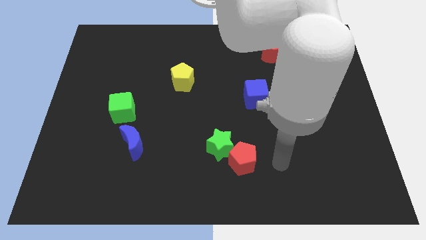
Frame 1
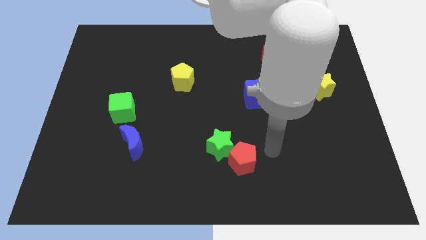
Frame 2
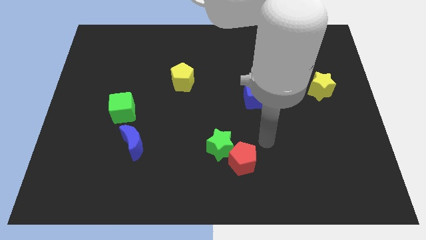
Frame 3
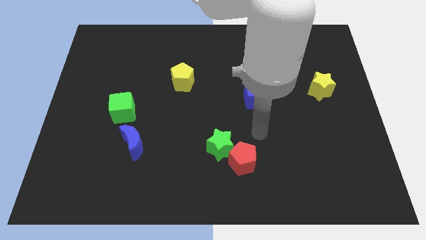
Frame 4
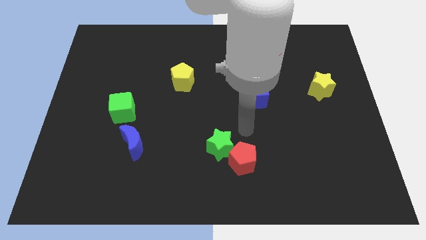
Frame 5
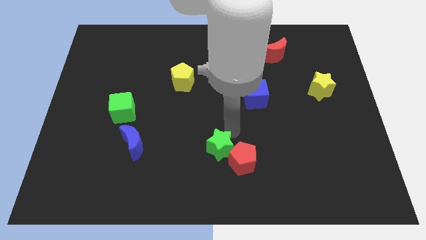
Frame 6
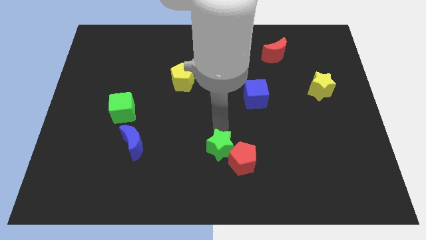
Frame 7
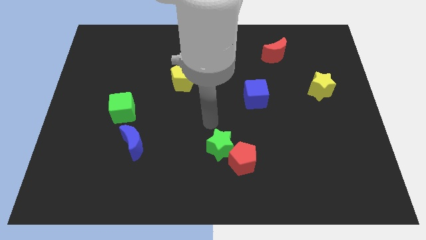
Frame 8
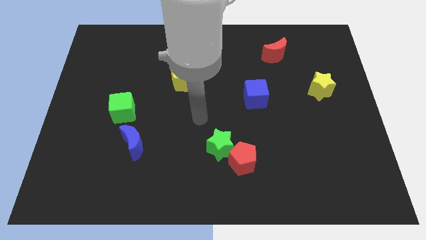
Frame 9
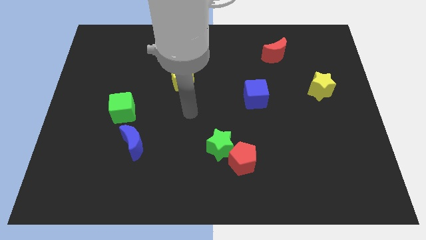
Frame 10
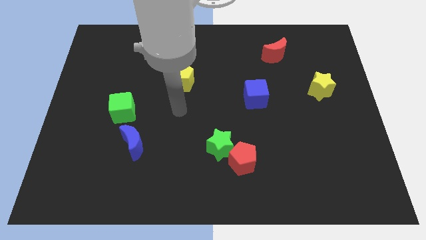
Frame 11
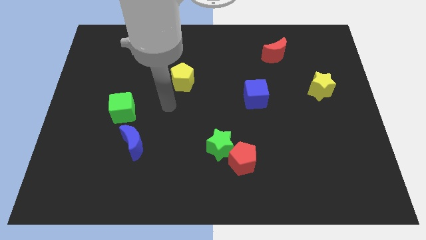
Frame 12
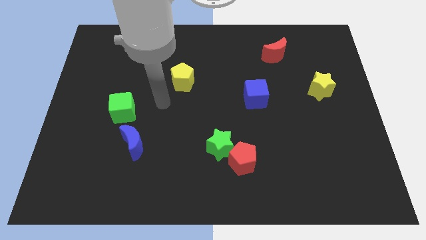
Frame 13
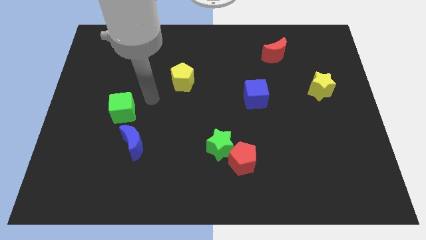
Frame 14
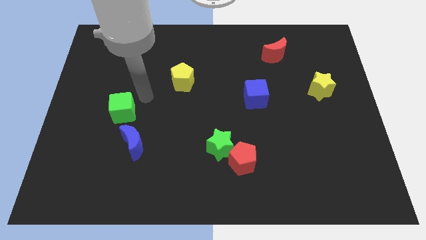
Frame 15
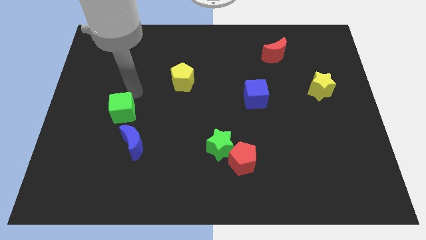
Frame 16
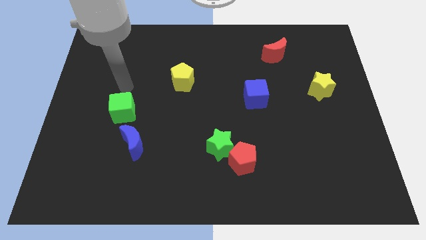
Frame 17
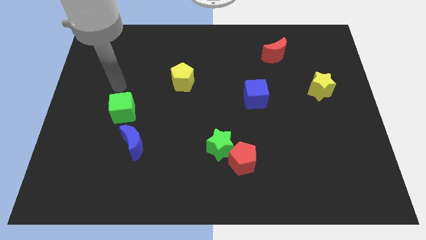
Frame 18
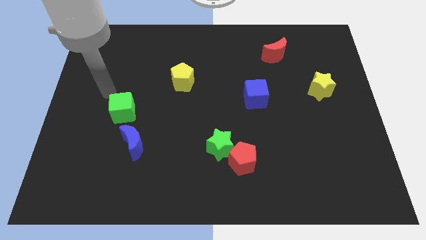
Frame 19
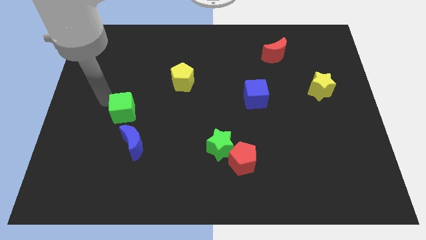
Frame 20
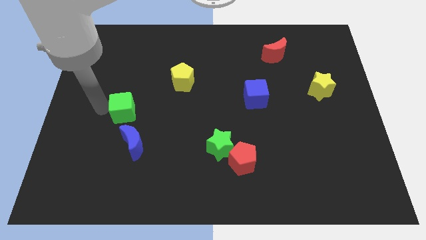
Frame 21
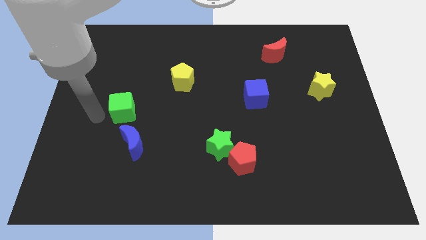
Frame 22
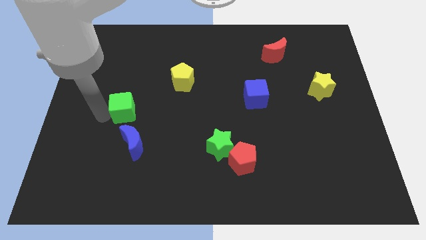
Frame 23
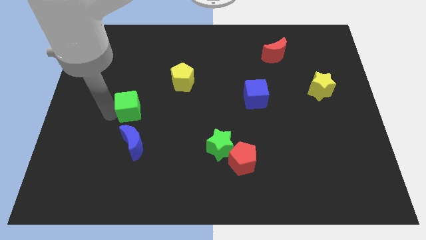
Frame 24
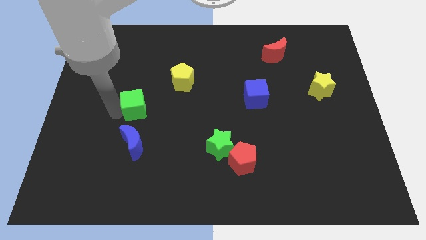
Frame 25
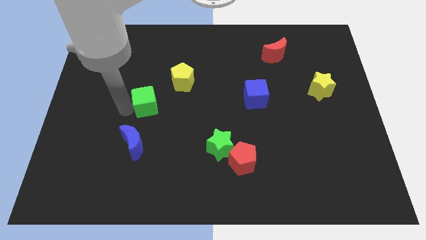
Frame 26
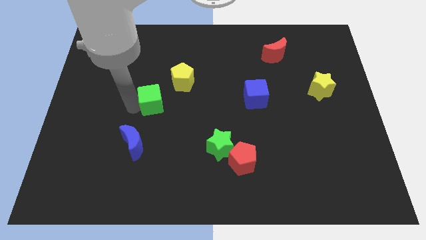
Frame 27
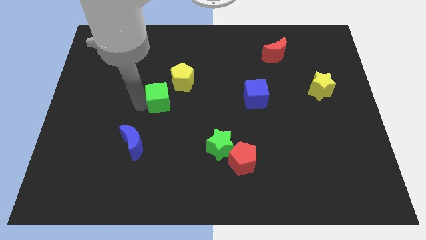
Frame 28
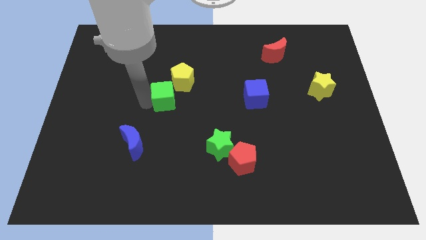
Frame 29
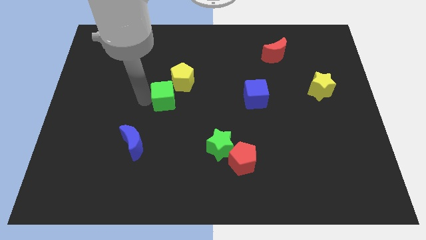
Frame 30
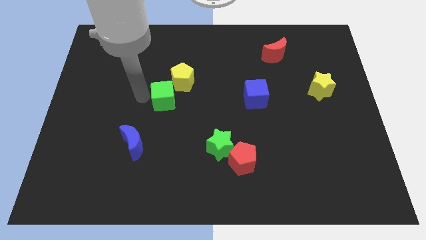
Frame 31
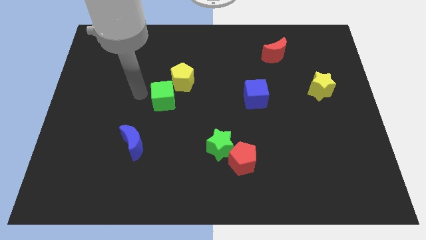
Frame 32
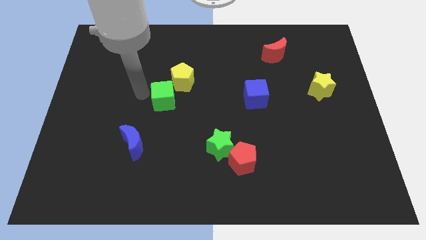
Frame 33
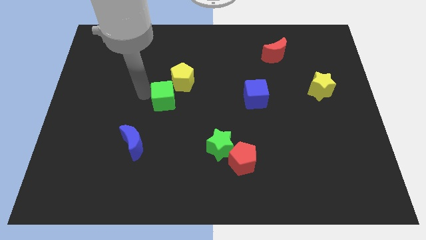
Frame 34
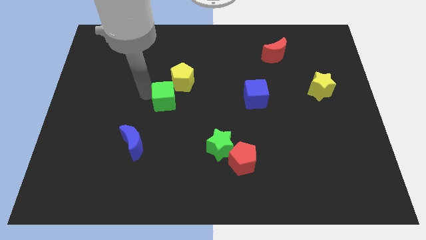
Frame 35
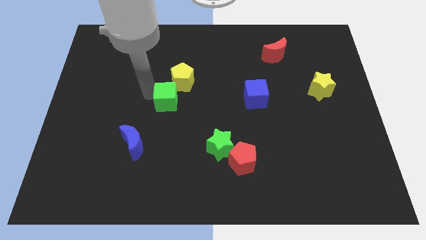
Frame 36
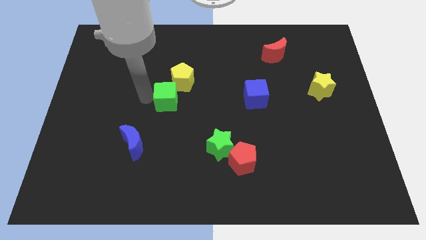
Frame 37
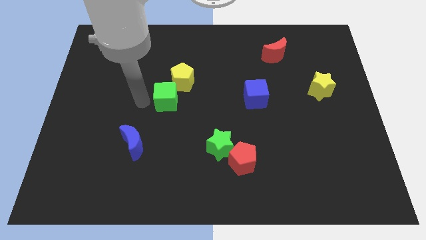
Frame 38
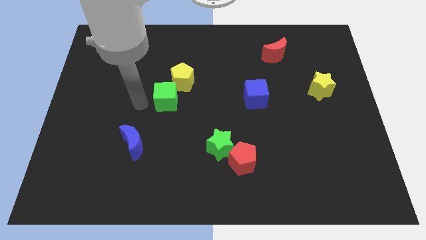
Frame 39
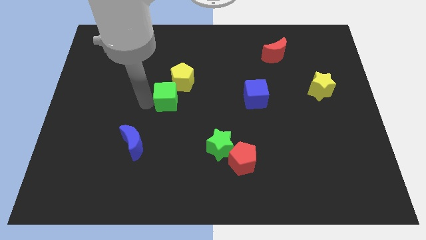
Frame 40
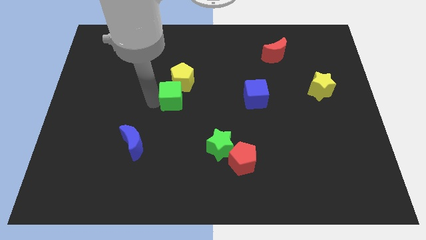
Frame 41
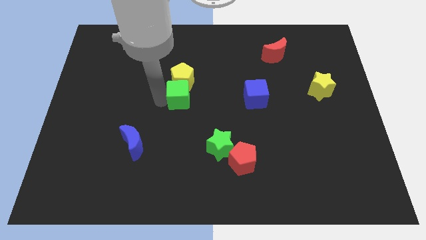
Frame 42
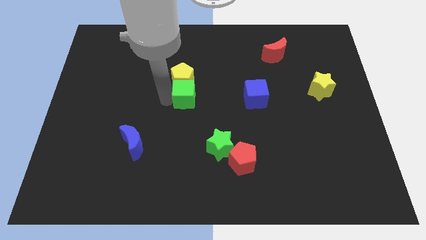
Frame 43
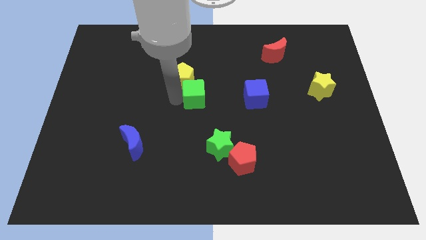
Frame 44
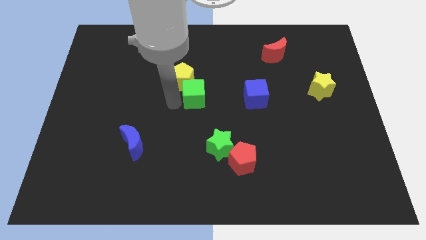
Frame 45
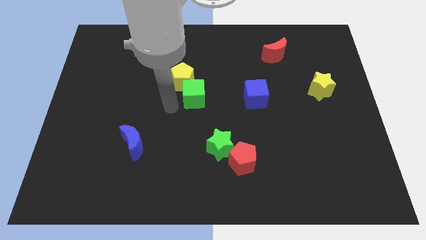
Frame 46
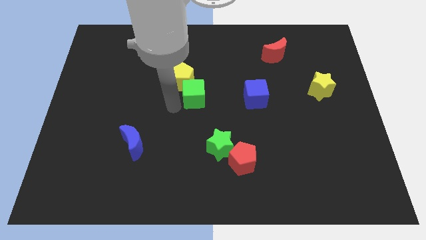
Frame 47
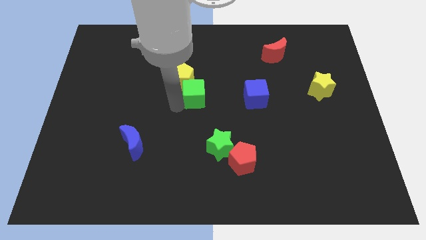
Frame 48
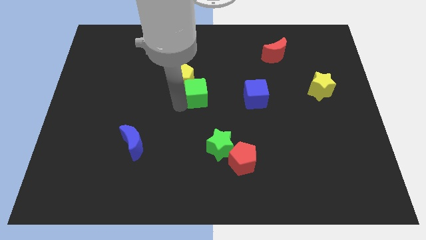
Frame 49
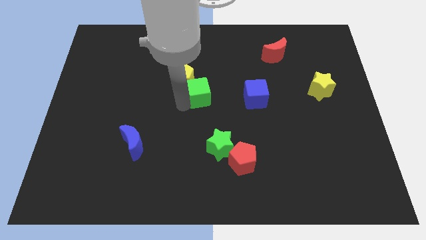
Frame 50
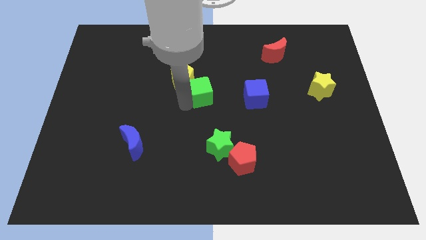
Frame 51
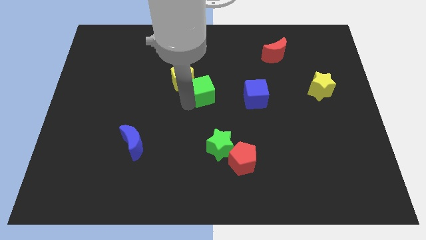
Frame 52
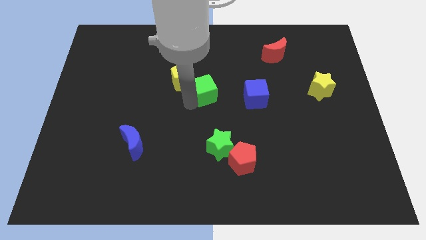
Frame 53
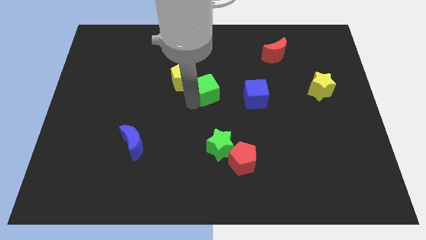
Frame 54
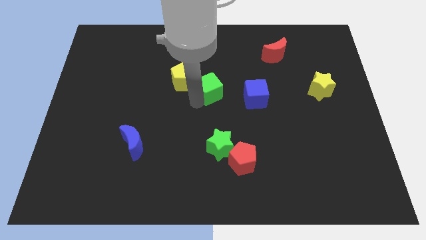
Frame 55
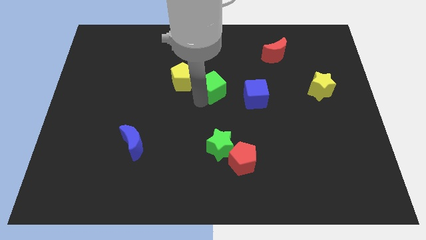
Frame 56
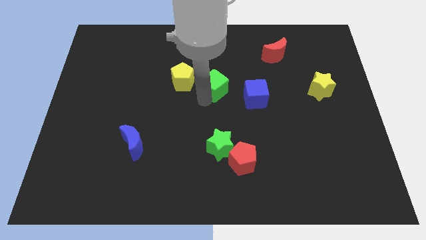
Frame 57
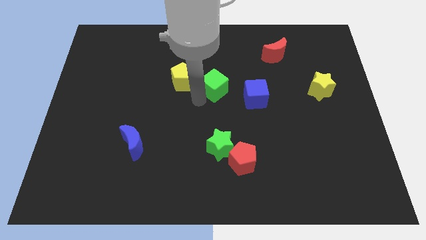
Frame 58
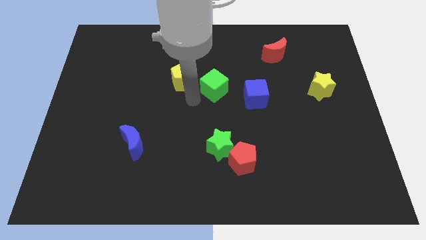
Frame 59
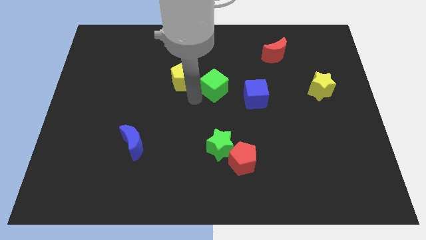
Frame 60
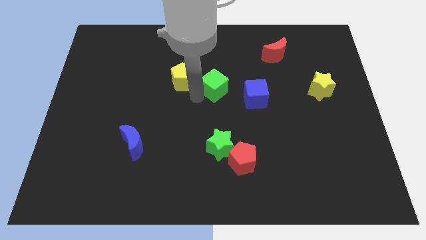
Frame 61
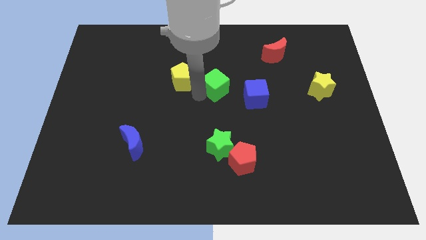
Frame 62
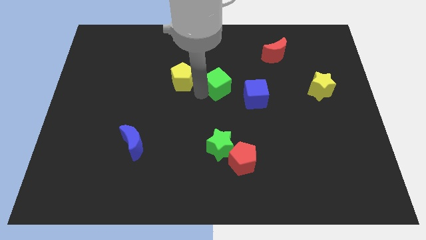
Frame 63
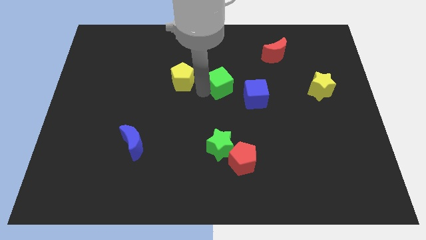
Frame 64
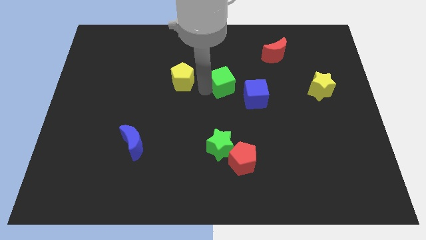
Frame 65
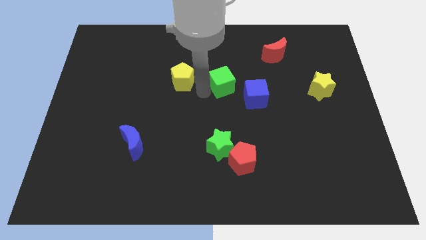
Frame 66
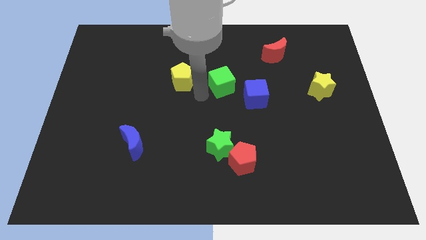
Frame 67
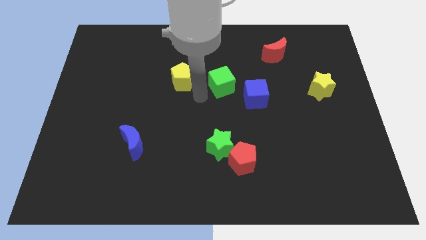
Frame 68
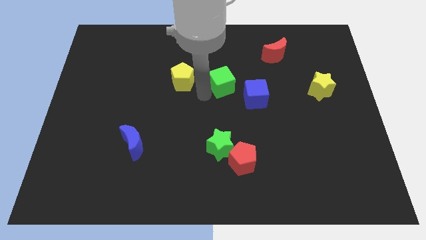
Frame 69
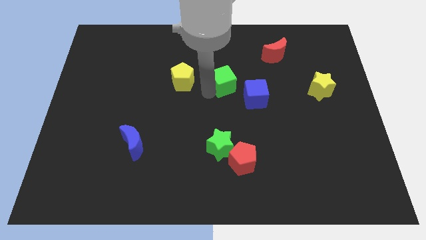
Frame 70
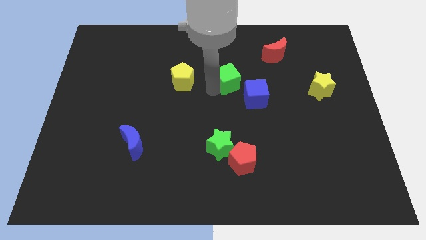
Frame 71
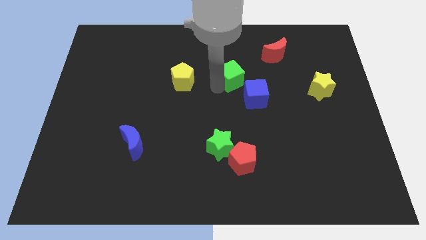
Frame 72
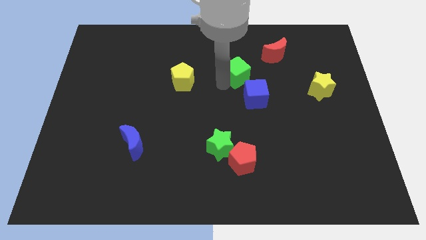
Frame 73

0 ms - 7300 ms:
put the green cube above the blue cube
